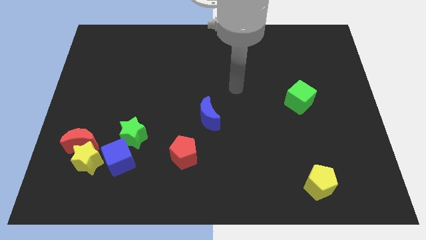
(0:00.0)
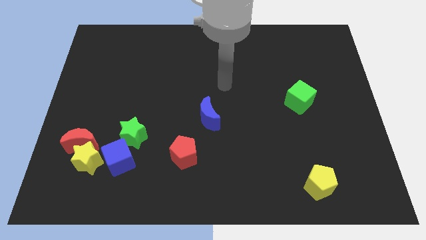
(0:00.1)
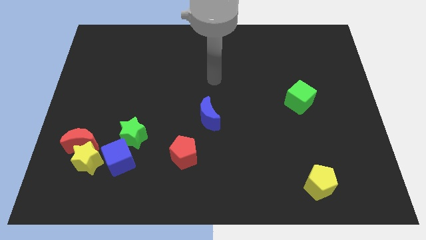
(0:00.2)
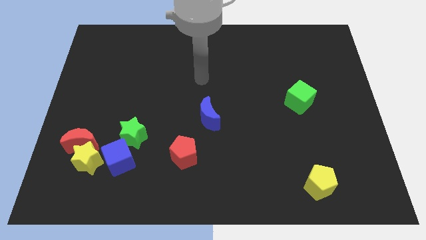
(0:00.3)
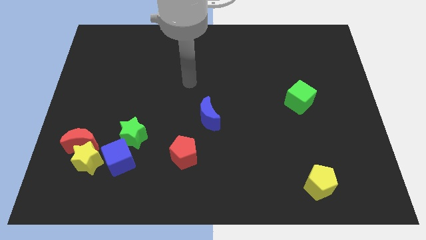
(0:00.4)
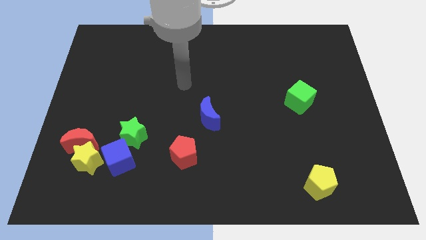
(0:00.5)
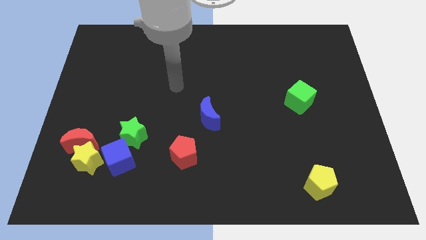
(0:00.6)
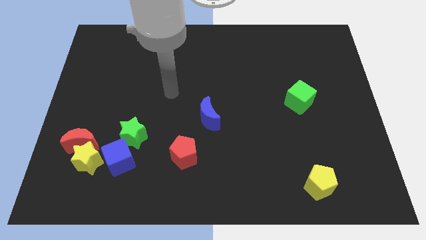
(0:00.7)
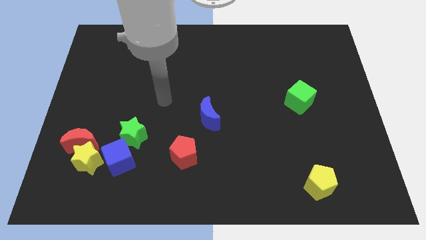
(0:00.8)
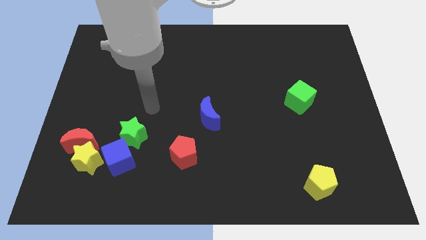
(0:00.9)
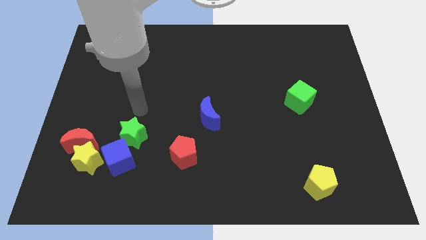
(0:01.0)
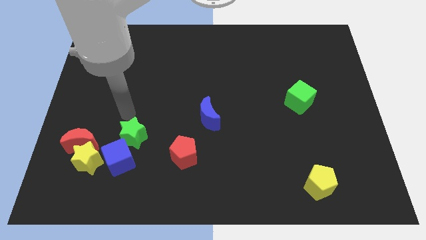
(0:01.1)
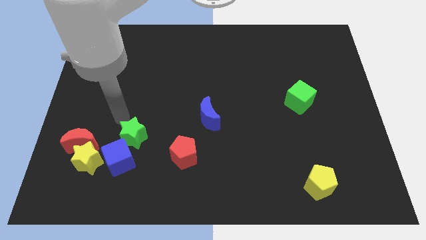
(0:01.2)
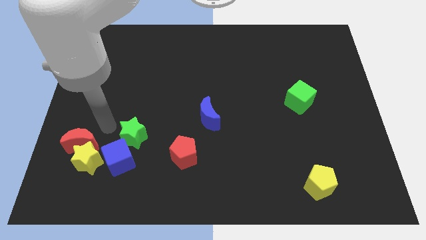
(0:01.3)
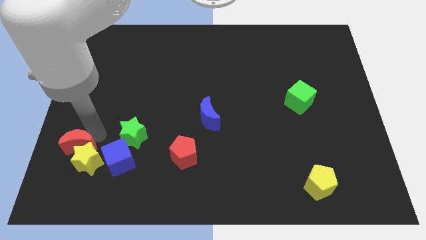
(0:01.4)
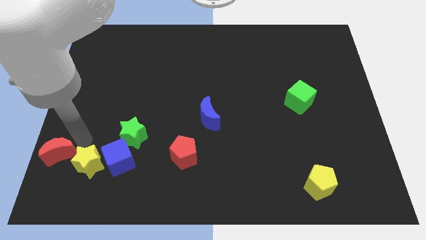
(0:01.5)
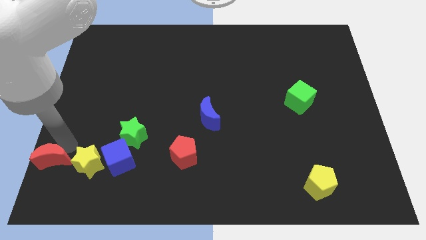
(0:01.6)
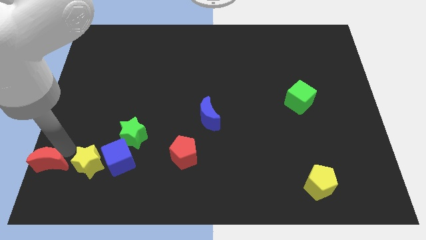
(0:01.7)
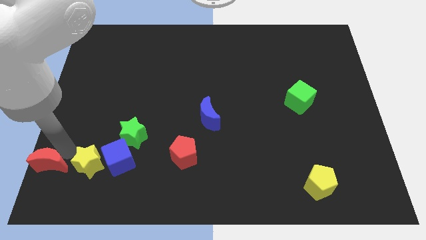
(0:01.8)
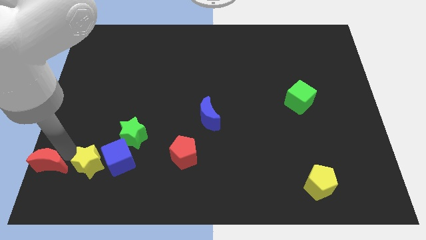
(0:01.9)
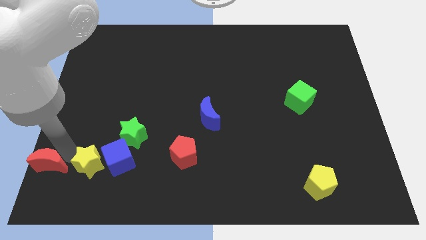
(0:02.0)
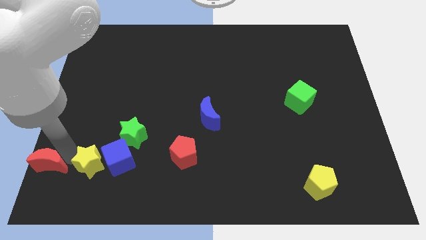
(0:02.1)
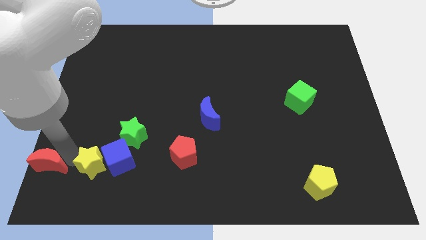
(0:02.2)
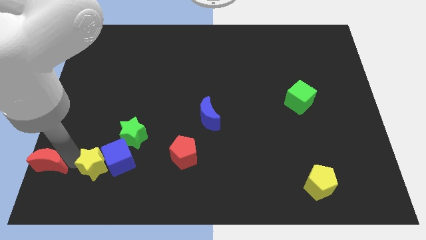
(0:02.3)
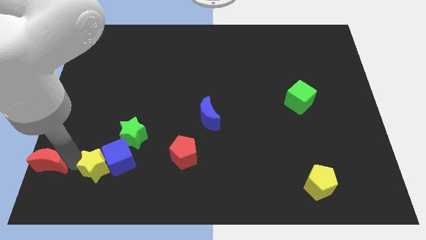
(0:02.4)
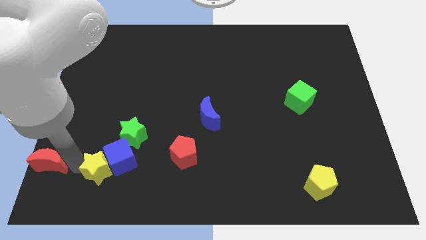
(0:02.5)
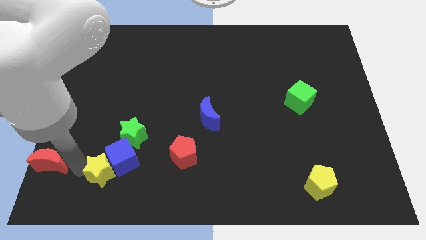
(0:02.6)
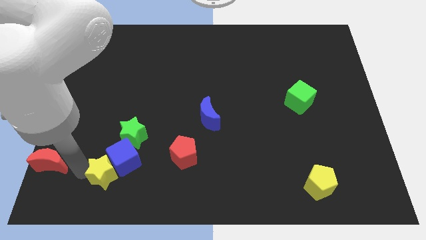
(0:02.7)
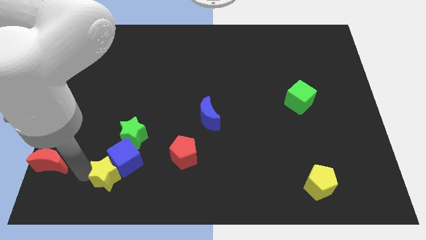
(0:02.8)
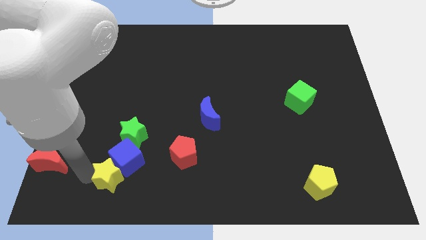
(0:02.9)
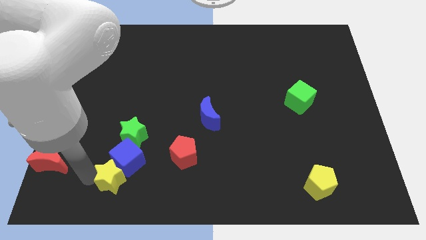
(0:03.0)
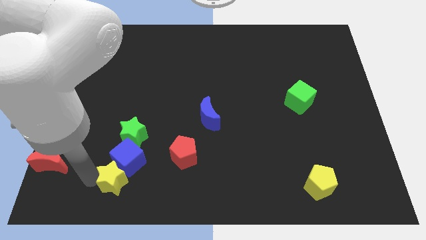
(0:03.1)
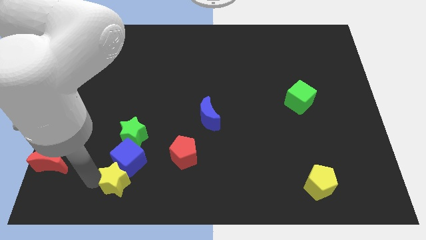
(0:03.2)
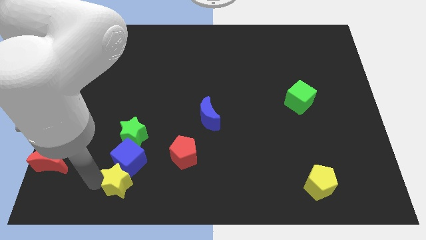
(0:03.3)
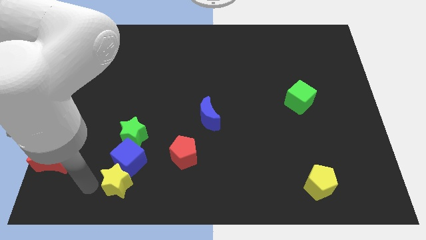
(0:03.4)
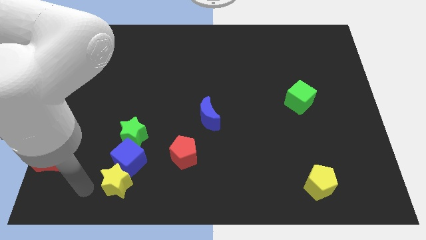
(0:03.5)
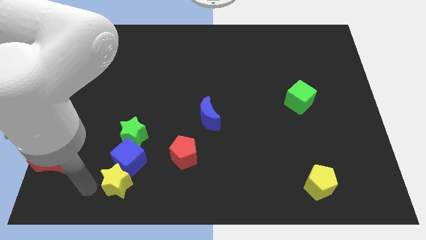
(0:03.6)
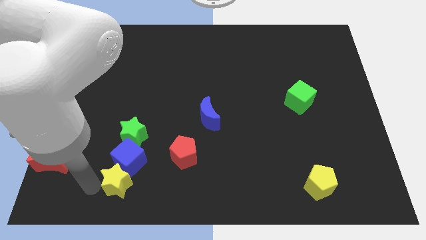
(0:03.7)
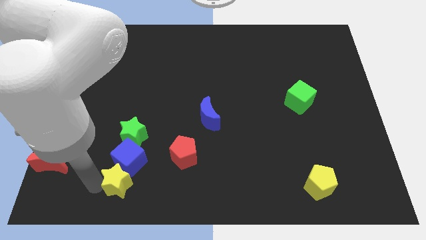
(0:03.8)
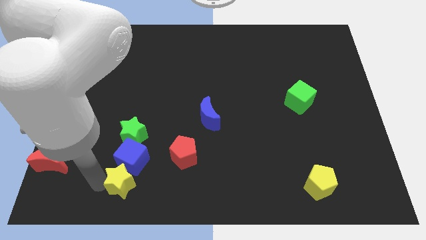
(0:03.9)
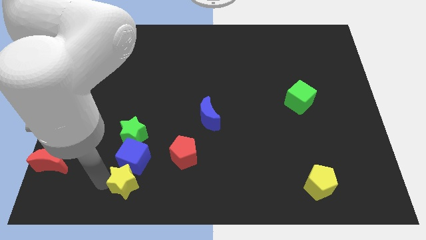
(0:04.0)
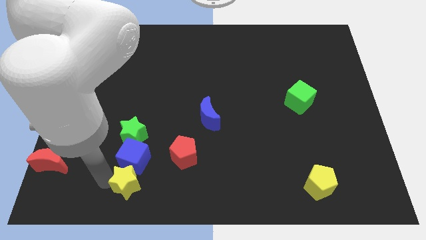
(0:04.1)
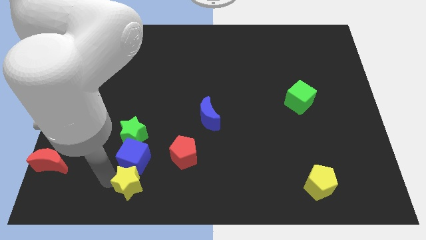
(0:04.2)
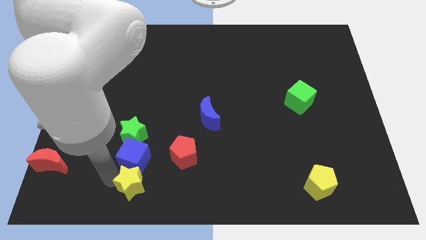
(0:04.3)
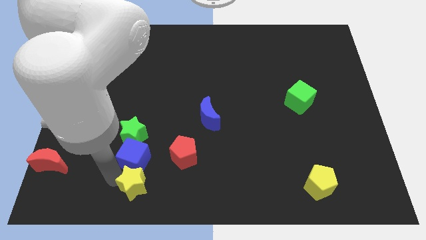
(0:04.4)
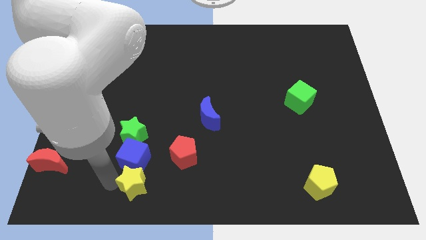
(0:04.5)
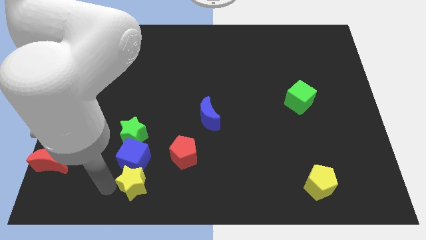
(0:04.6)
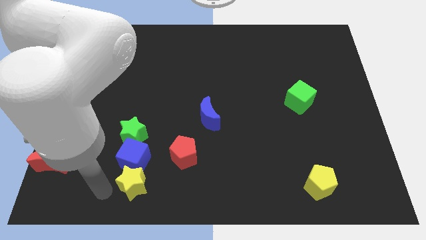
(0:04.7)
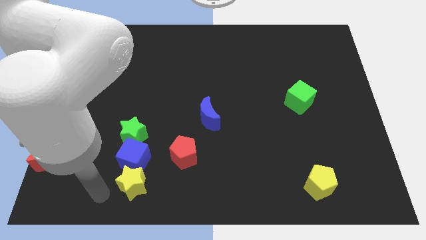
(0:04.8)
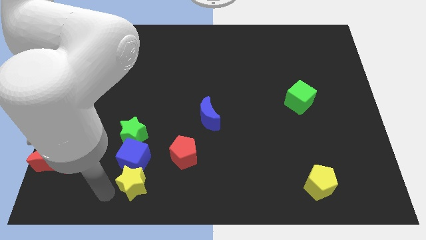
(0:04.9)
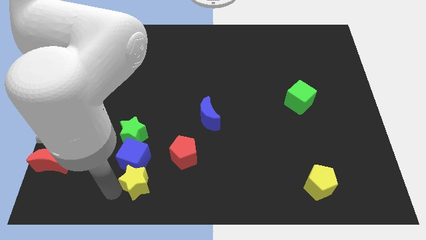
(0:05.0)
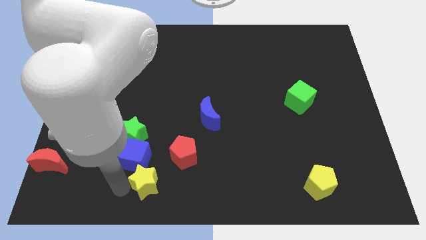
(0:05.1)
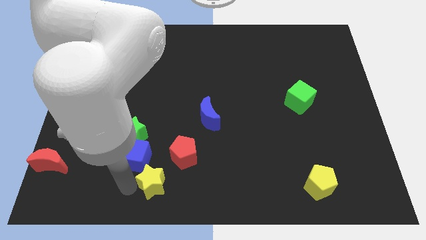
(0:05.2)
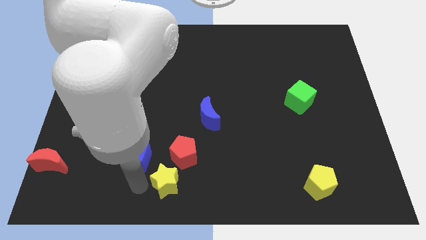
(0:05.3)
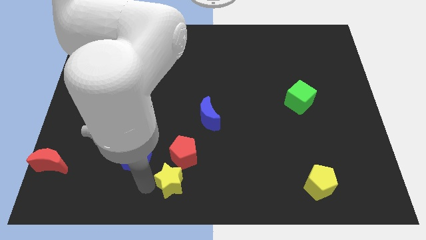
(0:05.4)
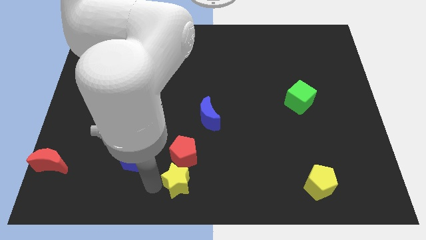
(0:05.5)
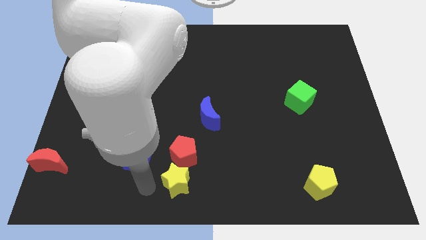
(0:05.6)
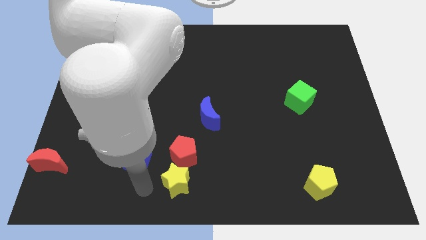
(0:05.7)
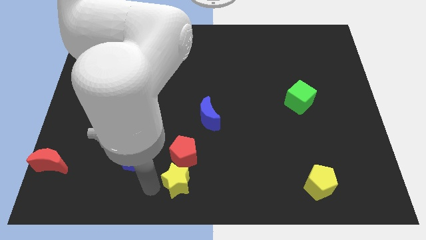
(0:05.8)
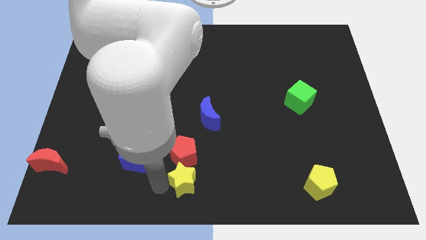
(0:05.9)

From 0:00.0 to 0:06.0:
slide the yellow star to the bottom right of the red pentagon
